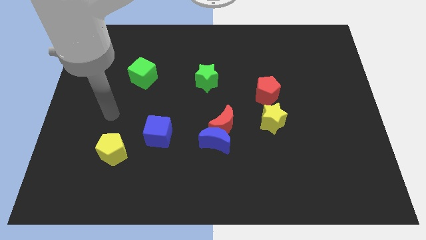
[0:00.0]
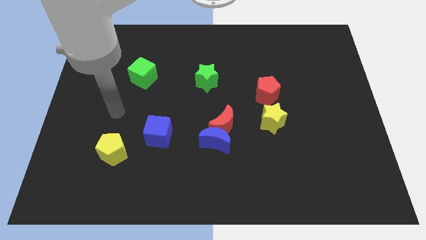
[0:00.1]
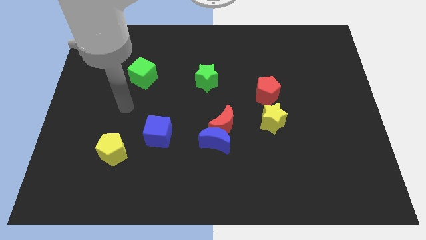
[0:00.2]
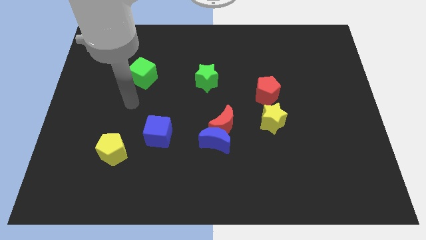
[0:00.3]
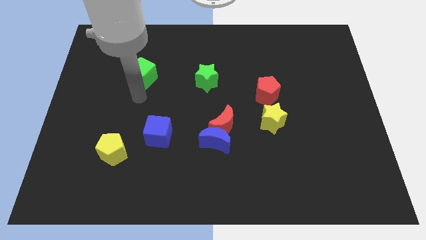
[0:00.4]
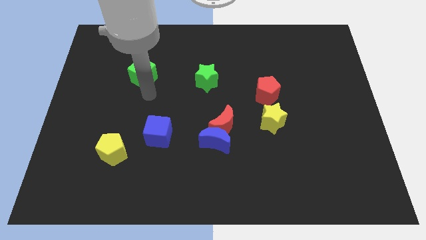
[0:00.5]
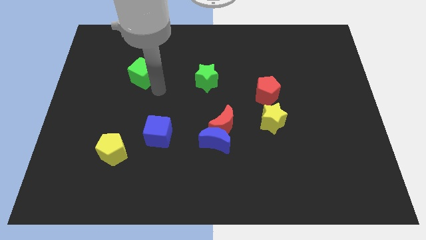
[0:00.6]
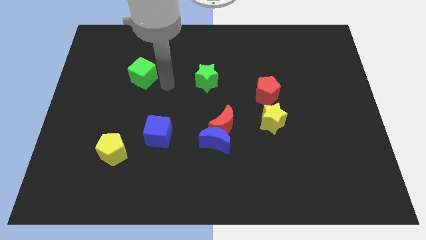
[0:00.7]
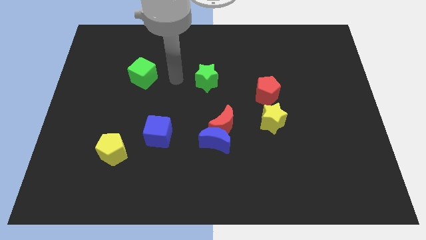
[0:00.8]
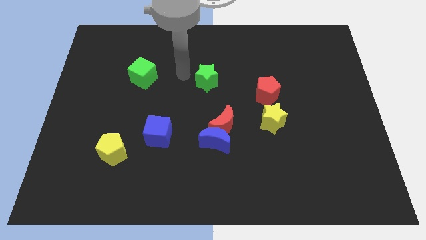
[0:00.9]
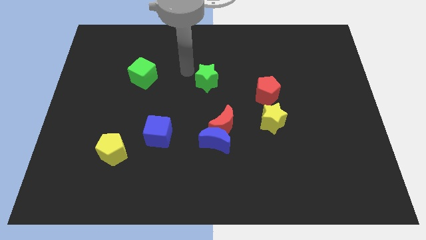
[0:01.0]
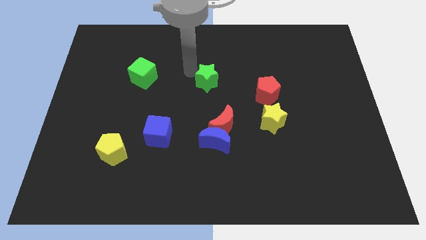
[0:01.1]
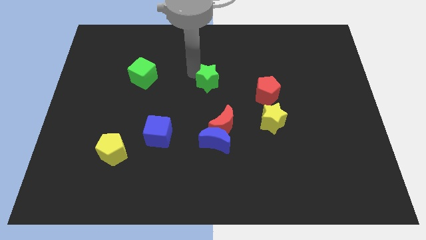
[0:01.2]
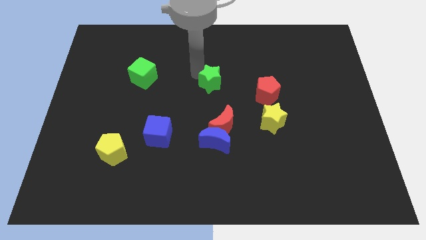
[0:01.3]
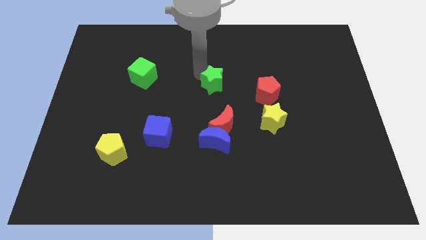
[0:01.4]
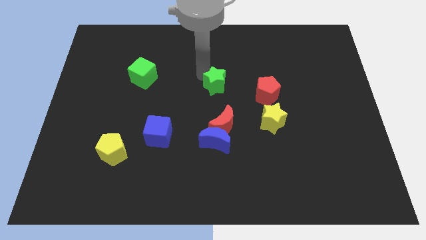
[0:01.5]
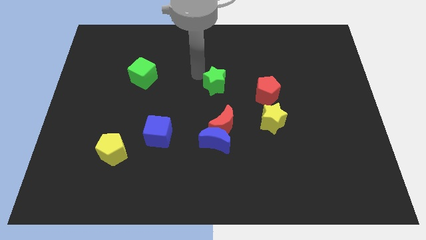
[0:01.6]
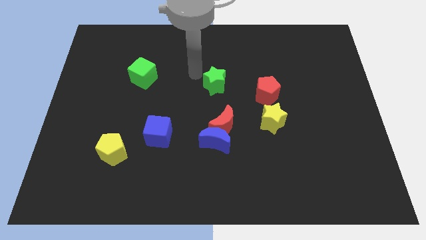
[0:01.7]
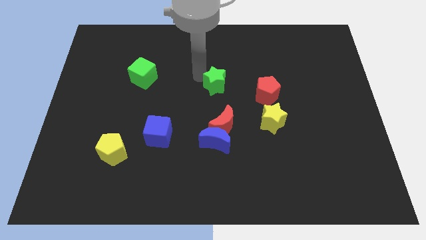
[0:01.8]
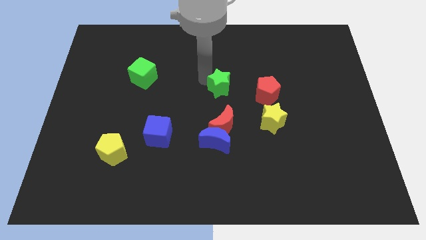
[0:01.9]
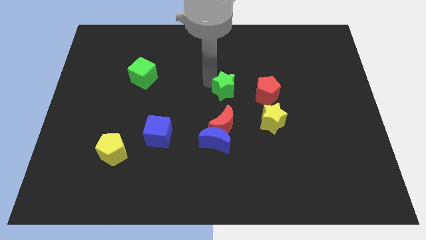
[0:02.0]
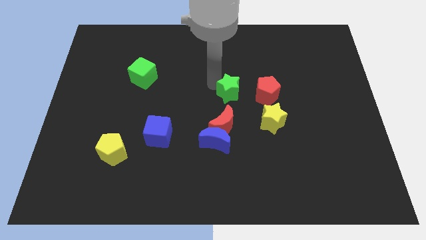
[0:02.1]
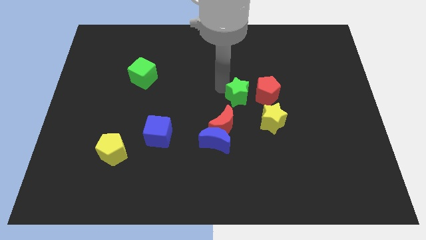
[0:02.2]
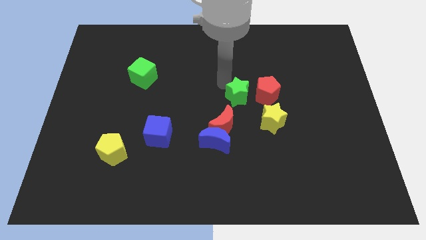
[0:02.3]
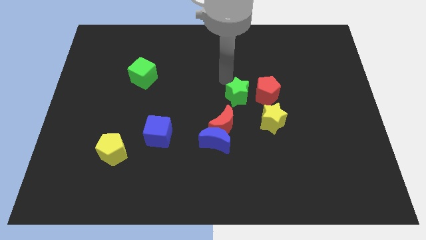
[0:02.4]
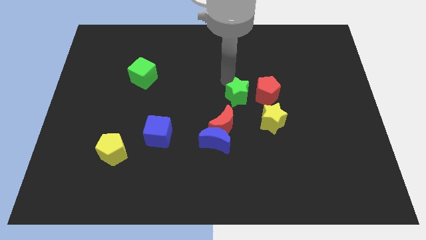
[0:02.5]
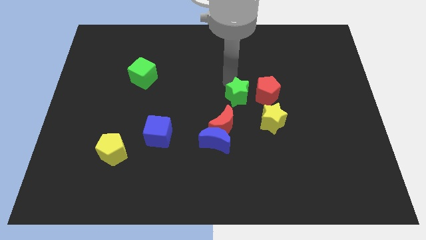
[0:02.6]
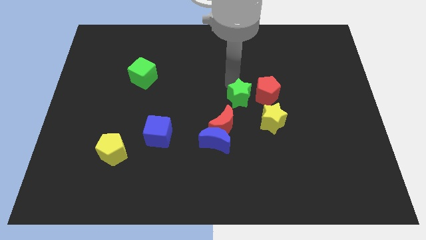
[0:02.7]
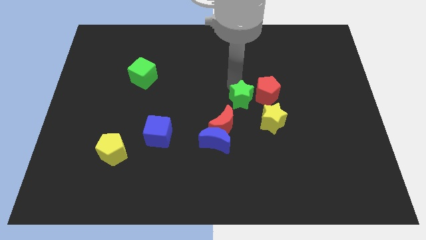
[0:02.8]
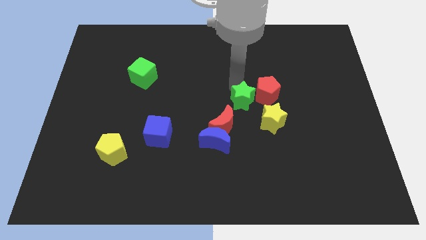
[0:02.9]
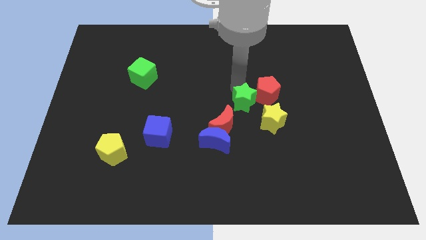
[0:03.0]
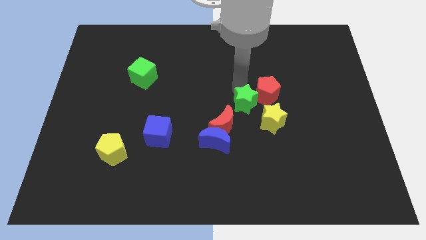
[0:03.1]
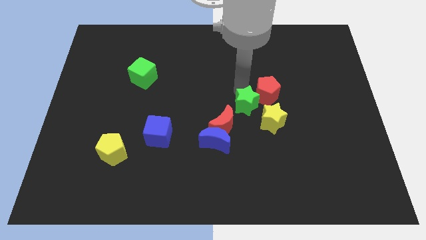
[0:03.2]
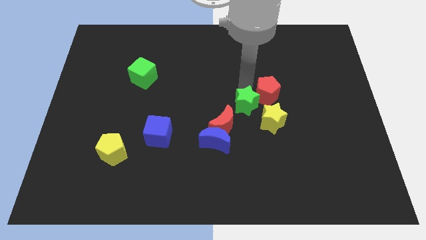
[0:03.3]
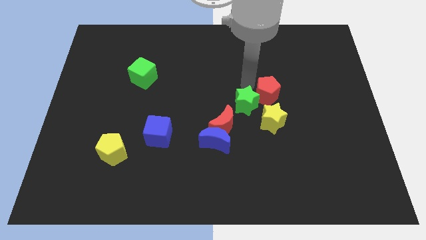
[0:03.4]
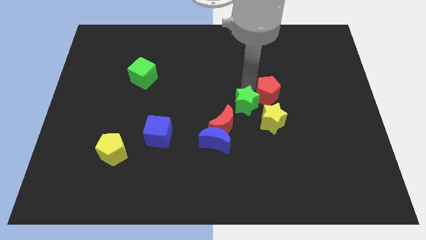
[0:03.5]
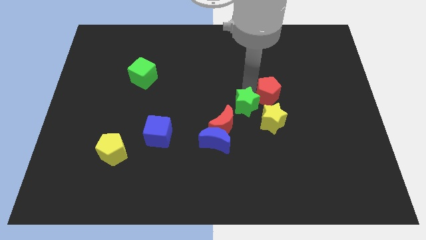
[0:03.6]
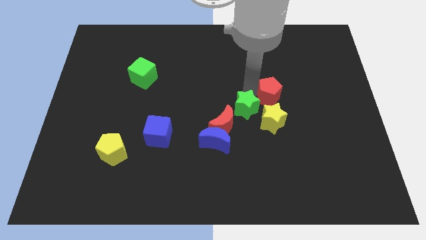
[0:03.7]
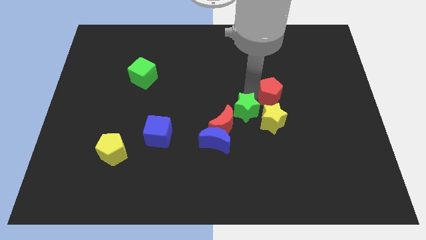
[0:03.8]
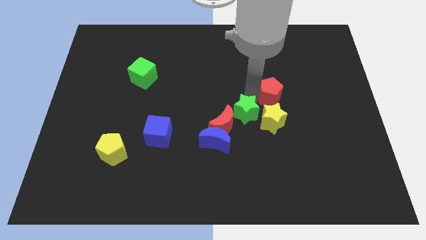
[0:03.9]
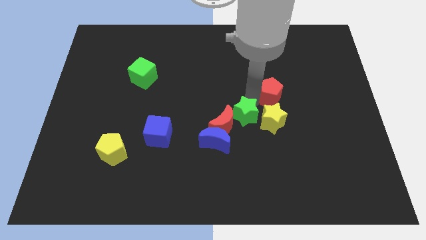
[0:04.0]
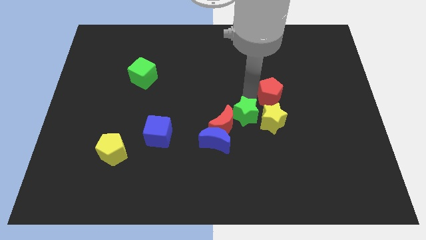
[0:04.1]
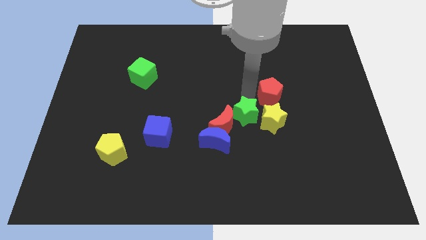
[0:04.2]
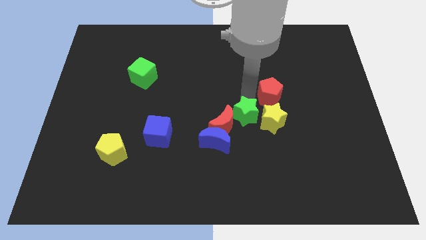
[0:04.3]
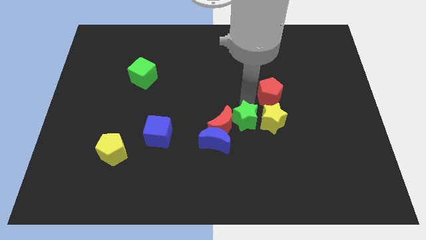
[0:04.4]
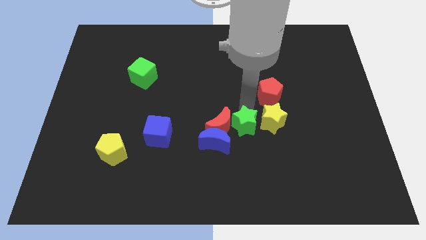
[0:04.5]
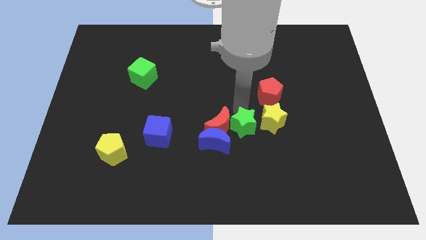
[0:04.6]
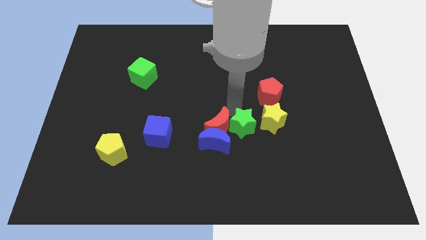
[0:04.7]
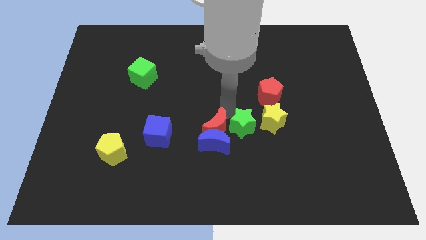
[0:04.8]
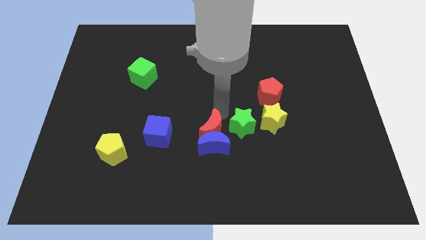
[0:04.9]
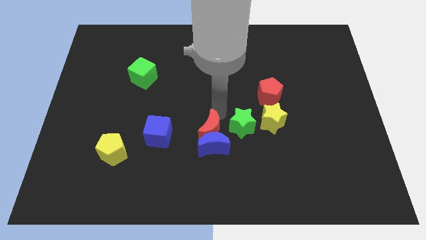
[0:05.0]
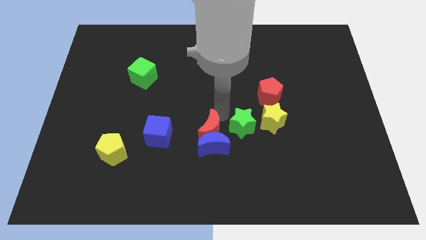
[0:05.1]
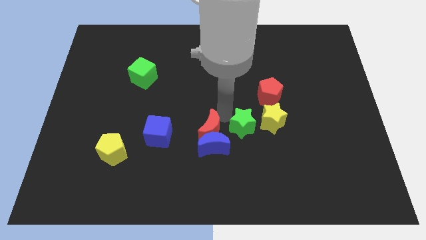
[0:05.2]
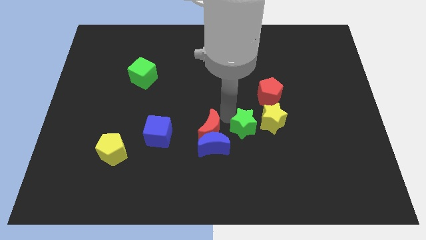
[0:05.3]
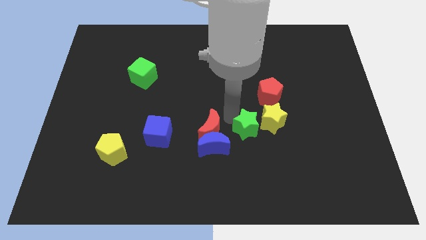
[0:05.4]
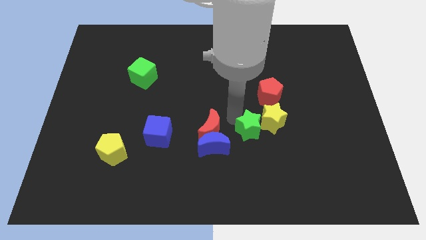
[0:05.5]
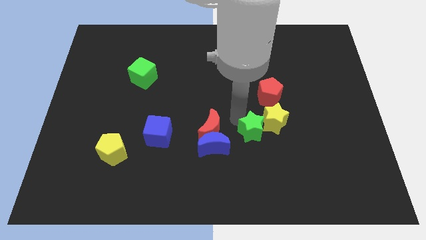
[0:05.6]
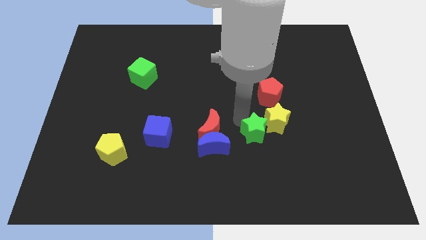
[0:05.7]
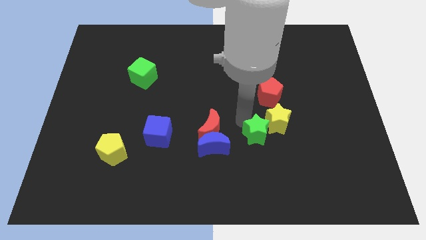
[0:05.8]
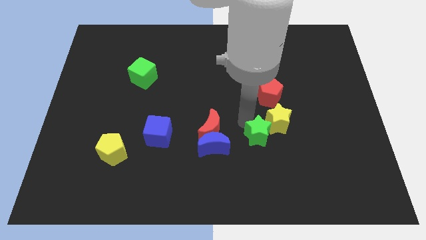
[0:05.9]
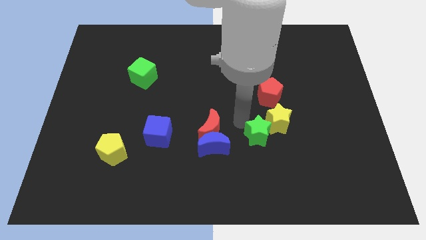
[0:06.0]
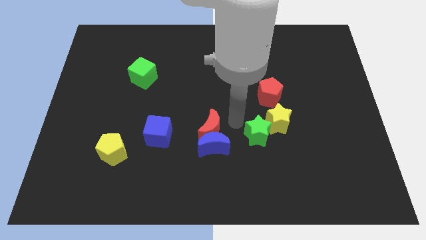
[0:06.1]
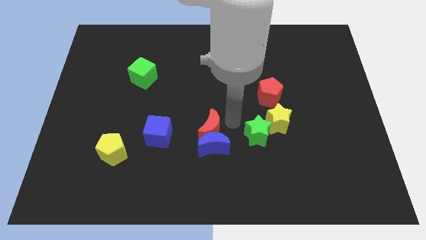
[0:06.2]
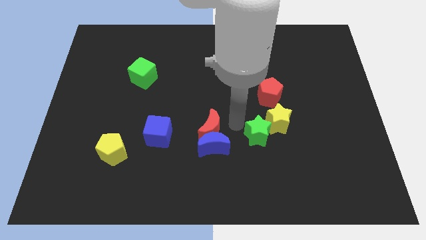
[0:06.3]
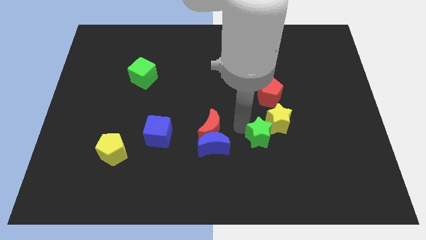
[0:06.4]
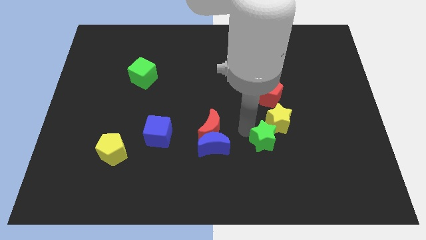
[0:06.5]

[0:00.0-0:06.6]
move the green star down and right diagonally

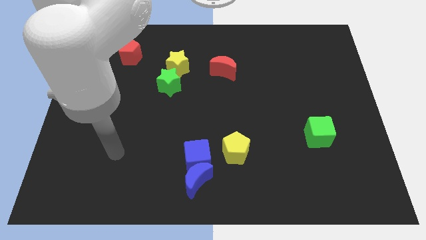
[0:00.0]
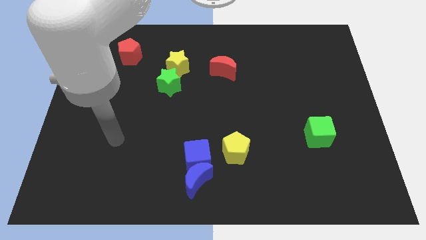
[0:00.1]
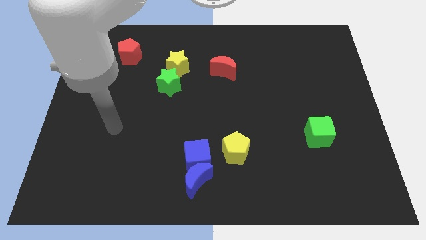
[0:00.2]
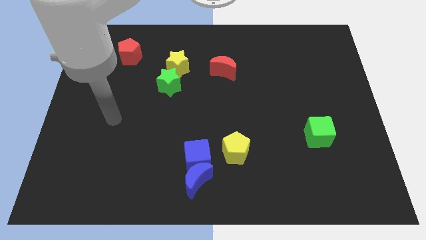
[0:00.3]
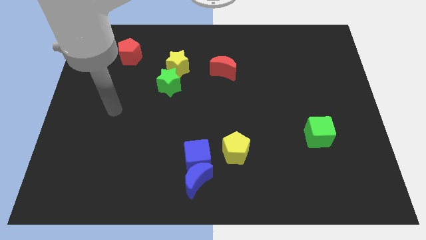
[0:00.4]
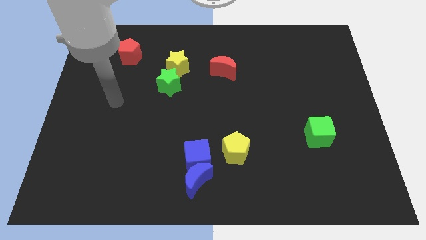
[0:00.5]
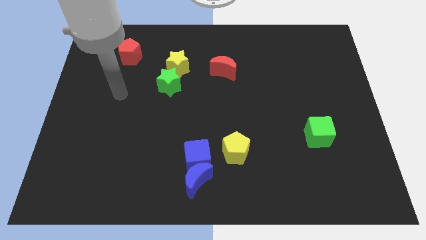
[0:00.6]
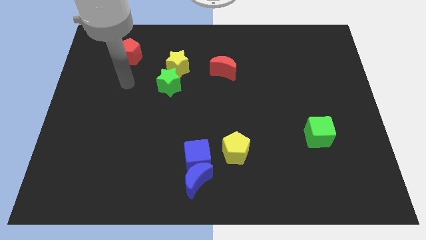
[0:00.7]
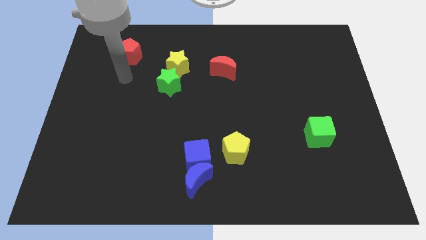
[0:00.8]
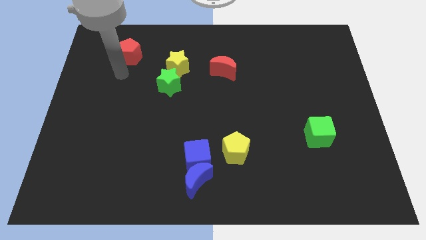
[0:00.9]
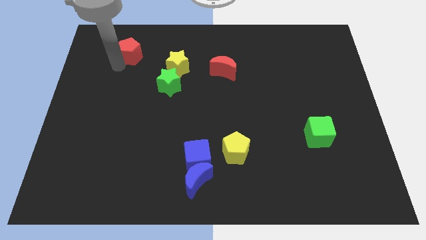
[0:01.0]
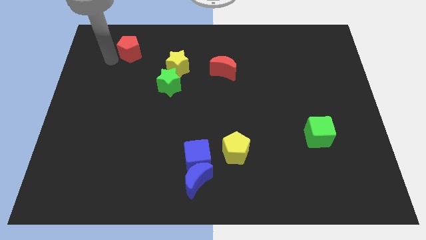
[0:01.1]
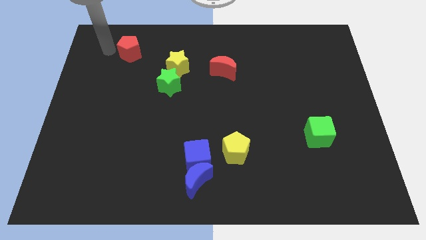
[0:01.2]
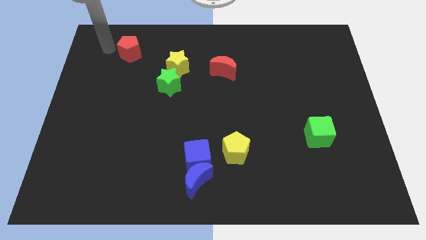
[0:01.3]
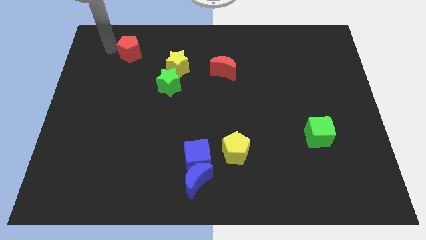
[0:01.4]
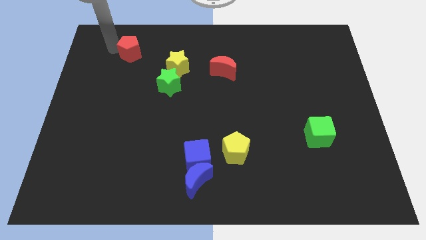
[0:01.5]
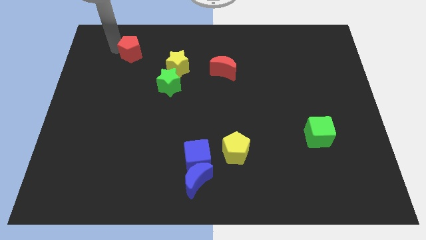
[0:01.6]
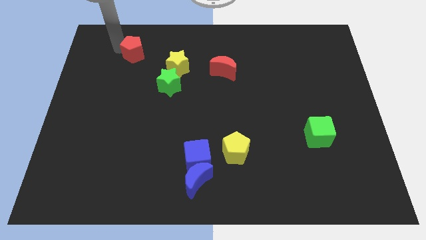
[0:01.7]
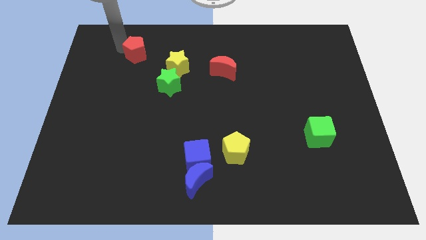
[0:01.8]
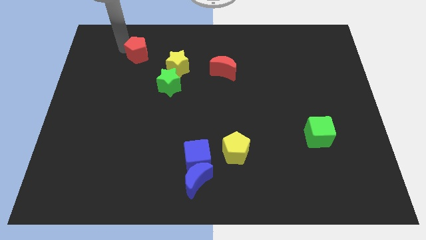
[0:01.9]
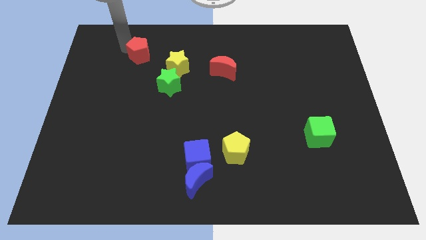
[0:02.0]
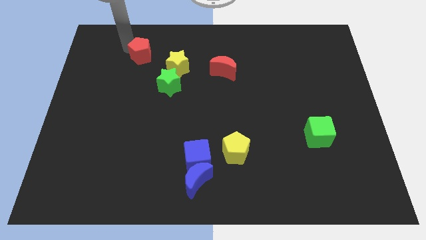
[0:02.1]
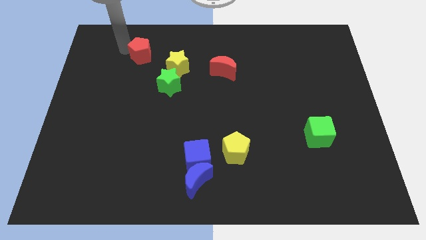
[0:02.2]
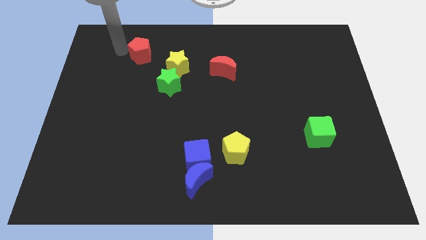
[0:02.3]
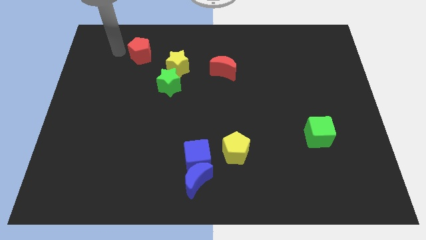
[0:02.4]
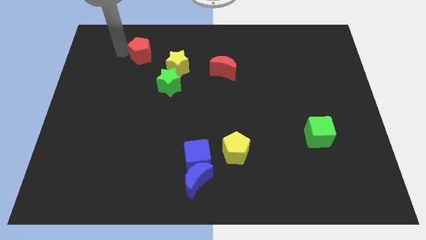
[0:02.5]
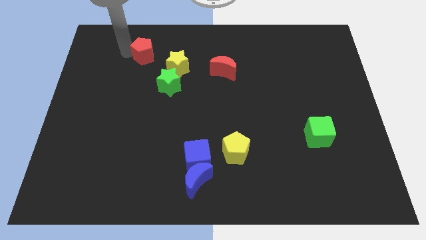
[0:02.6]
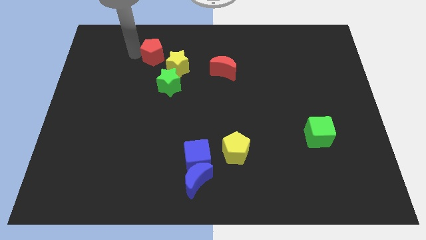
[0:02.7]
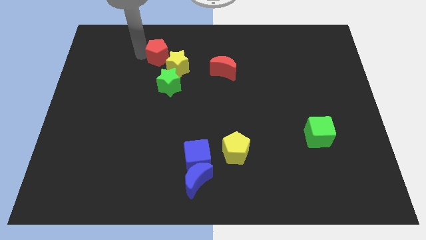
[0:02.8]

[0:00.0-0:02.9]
push the red pentagon to the right slightly
